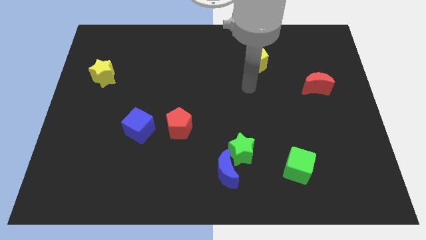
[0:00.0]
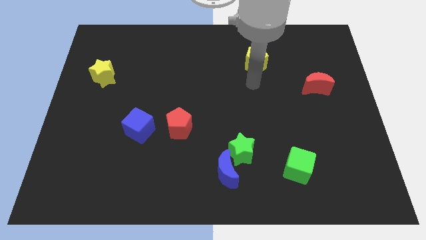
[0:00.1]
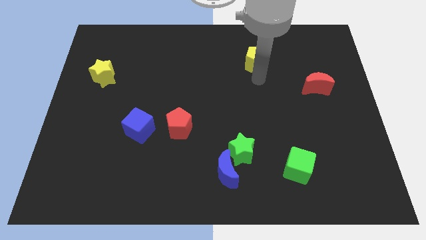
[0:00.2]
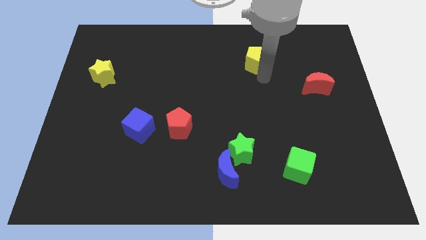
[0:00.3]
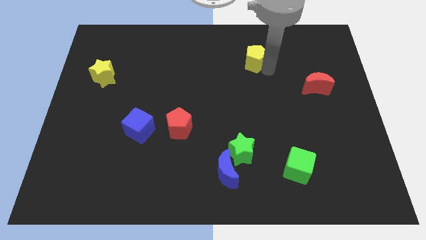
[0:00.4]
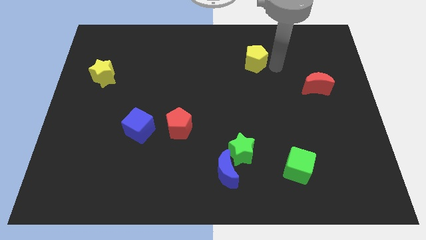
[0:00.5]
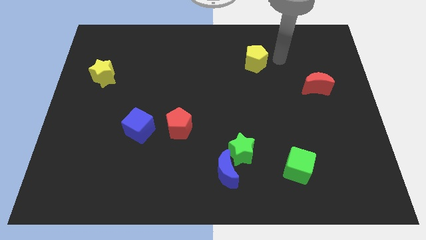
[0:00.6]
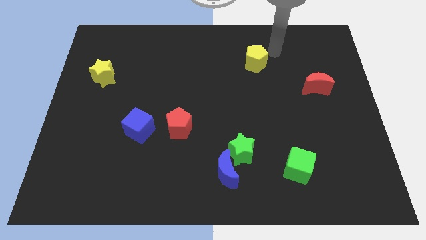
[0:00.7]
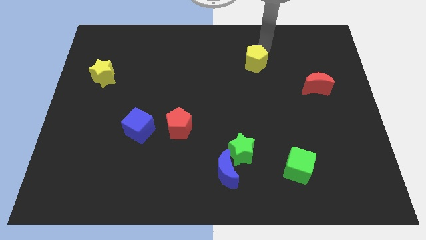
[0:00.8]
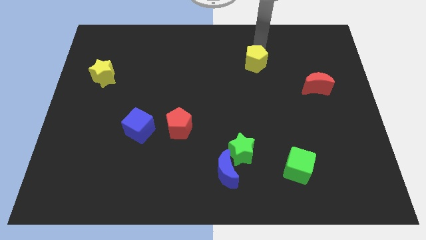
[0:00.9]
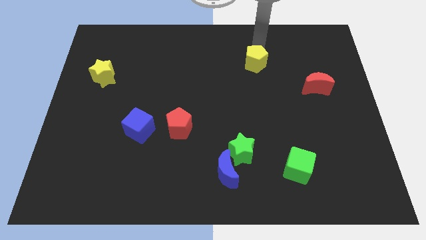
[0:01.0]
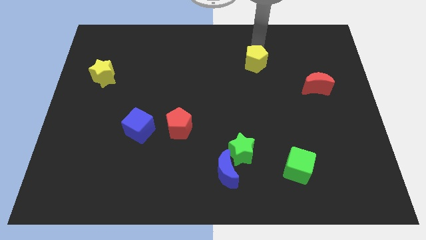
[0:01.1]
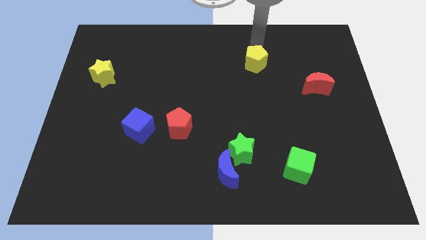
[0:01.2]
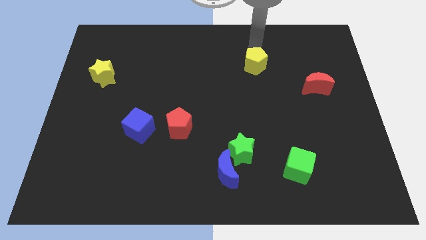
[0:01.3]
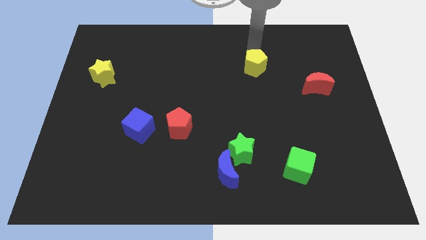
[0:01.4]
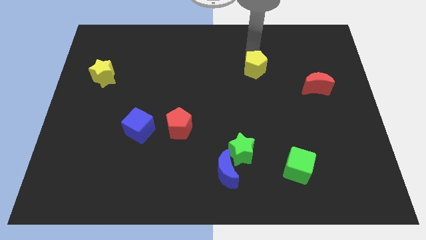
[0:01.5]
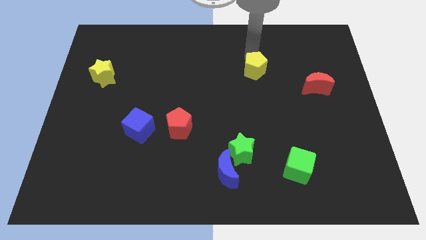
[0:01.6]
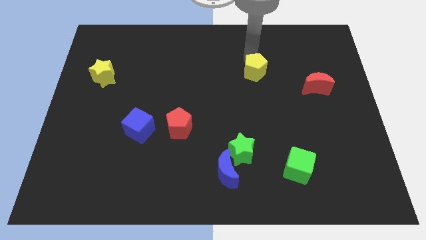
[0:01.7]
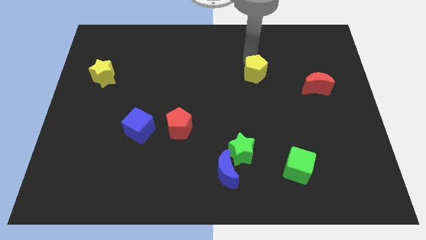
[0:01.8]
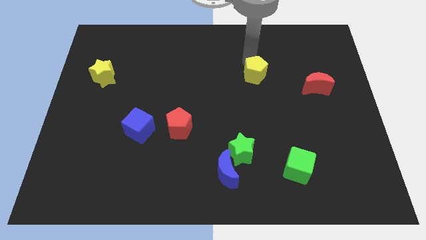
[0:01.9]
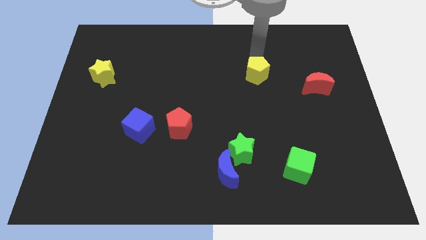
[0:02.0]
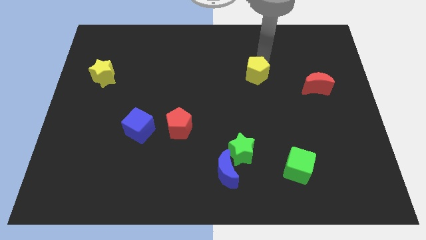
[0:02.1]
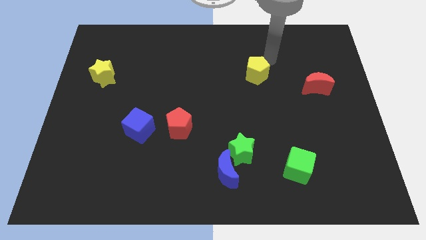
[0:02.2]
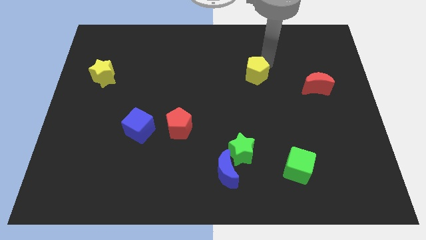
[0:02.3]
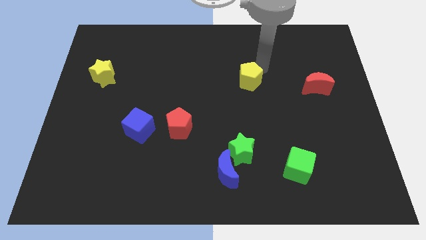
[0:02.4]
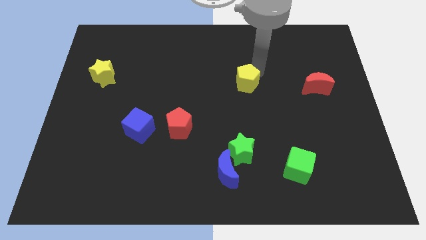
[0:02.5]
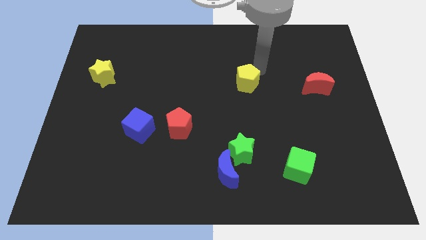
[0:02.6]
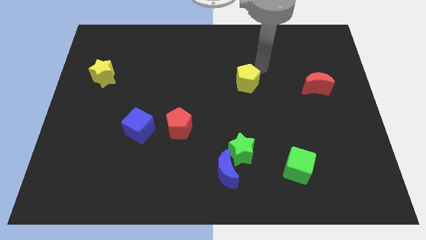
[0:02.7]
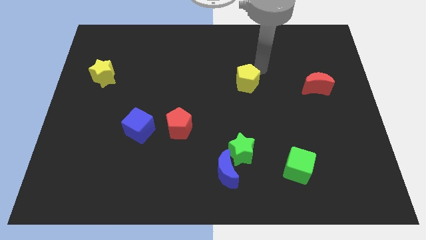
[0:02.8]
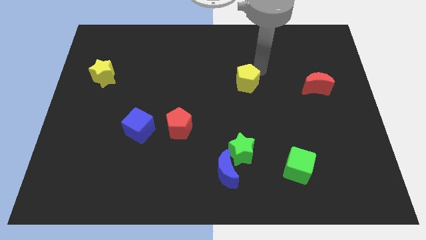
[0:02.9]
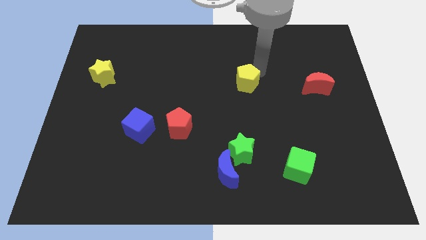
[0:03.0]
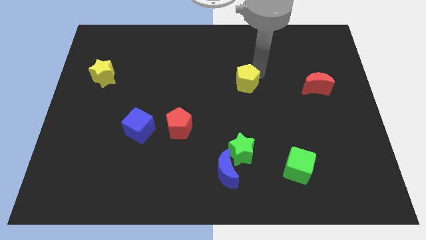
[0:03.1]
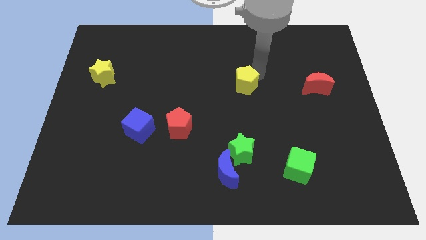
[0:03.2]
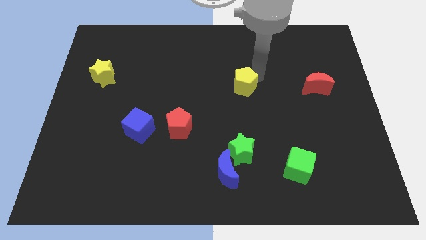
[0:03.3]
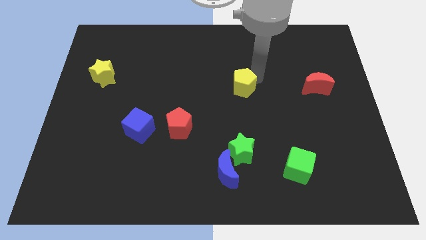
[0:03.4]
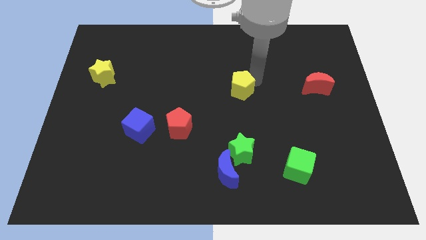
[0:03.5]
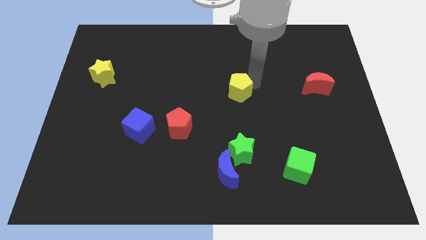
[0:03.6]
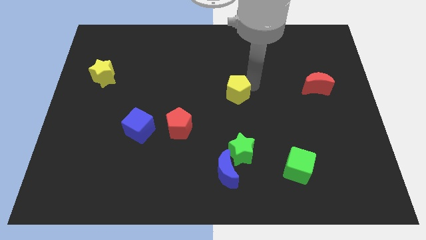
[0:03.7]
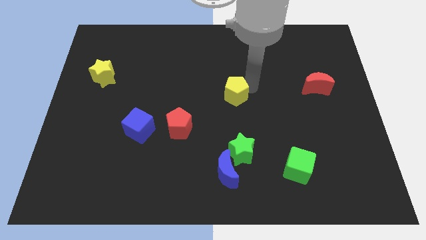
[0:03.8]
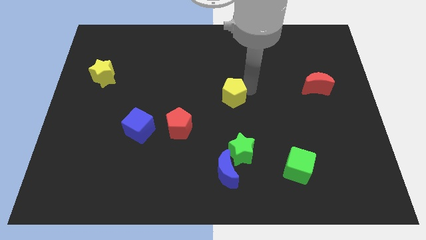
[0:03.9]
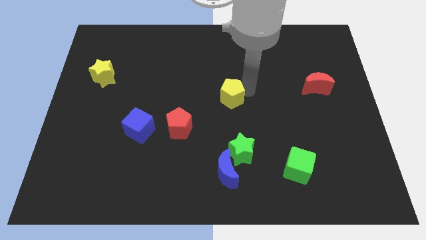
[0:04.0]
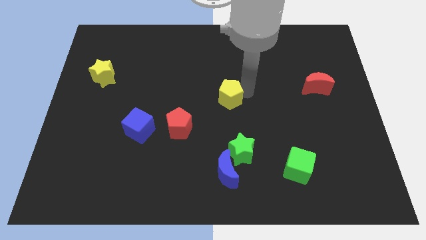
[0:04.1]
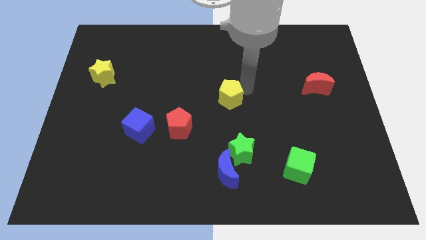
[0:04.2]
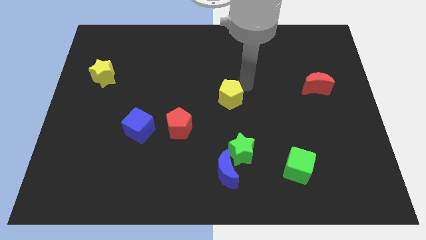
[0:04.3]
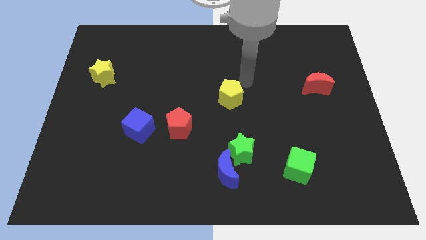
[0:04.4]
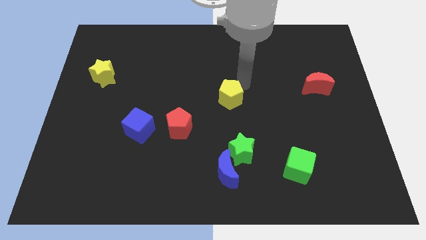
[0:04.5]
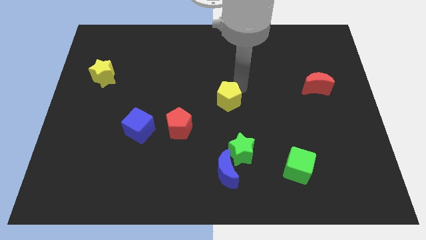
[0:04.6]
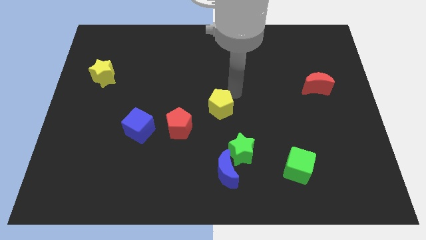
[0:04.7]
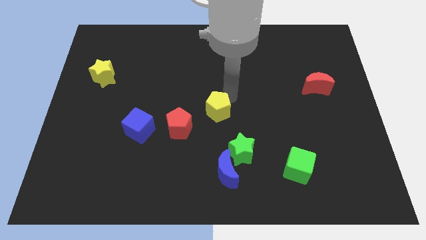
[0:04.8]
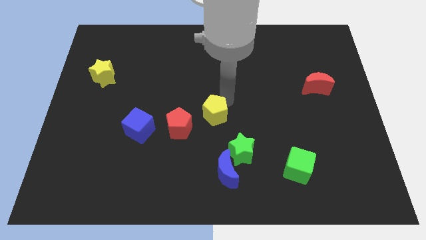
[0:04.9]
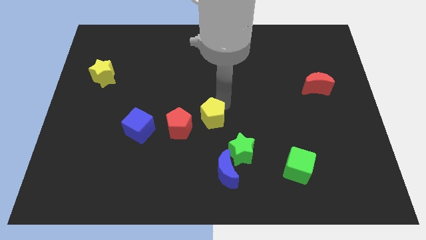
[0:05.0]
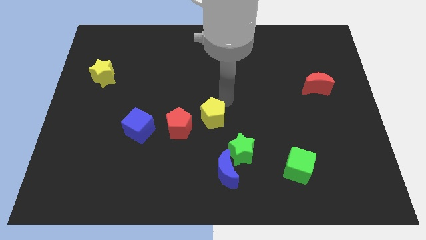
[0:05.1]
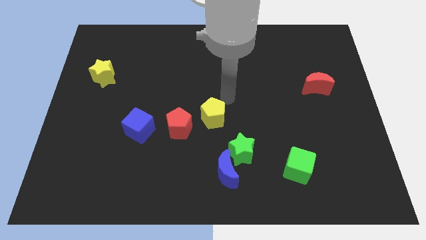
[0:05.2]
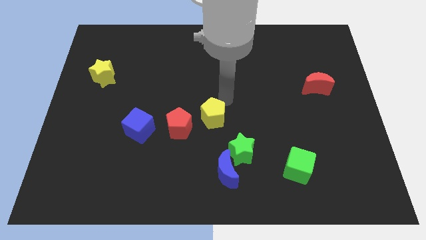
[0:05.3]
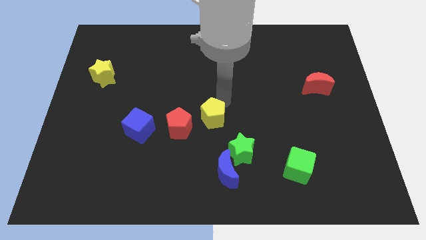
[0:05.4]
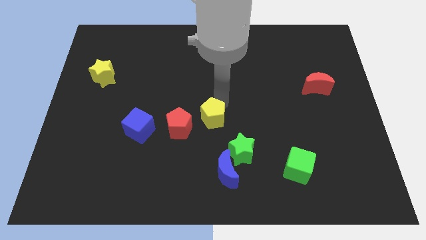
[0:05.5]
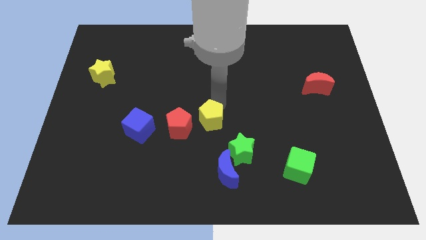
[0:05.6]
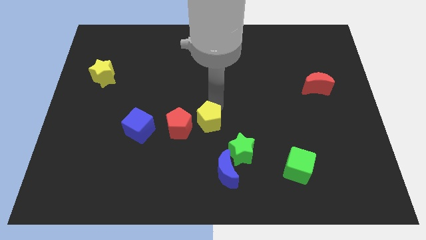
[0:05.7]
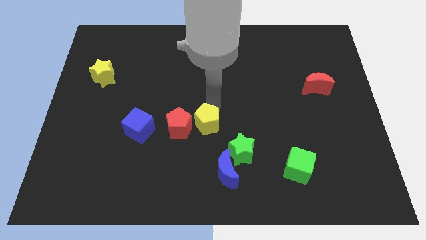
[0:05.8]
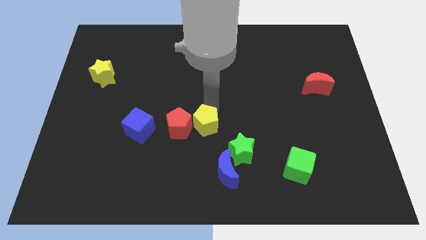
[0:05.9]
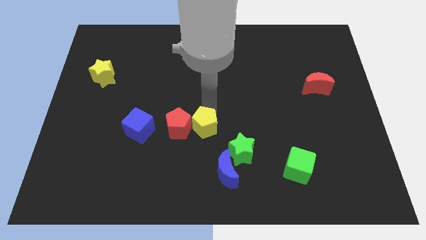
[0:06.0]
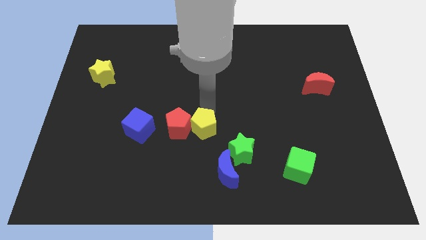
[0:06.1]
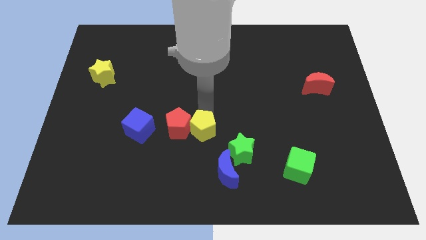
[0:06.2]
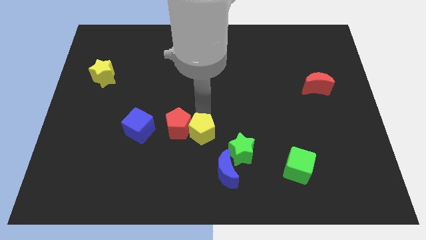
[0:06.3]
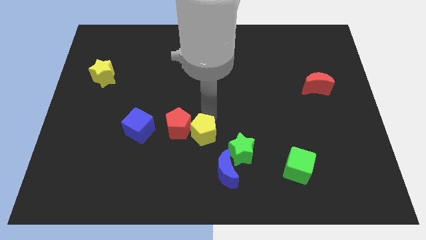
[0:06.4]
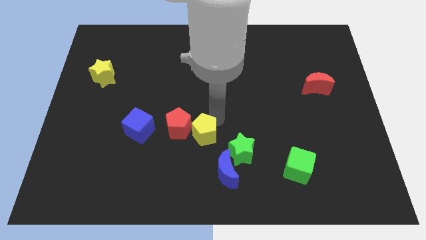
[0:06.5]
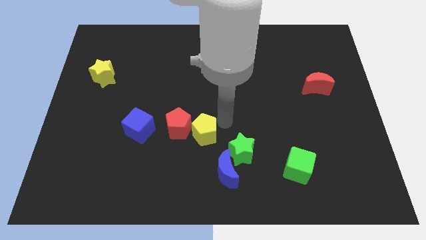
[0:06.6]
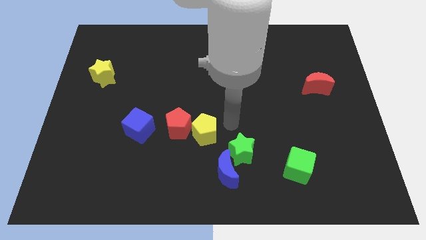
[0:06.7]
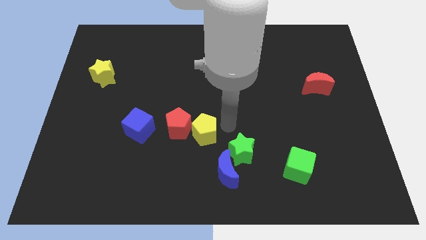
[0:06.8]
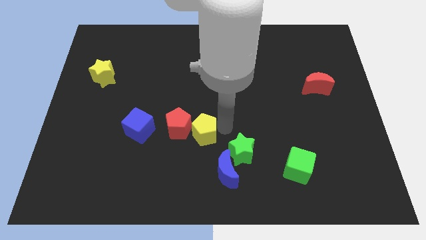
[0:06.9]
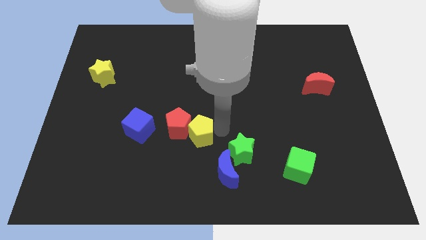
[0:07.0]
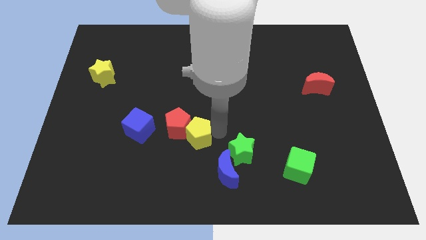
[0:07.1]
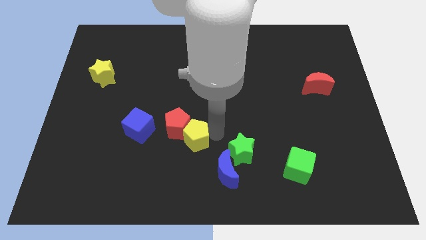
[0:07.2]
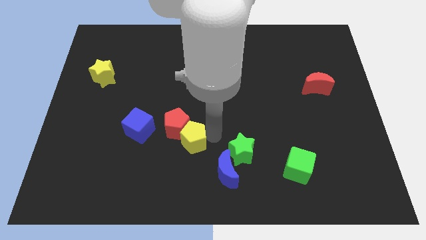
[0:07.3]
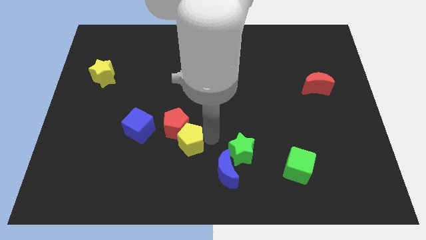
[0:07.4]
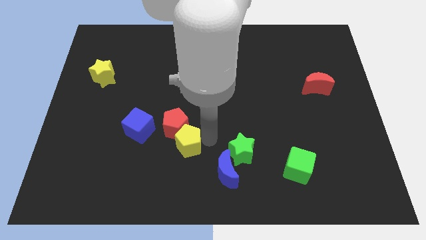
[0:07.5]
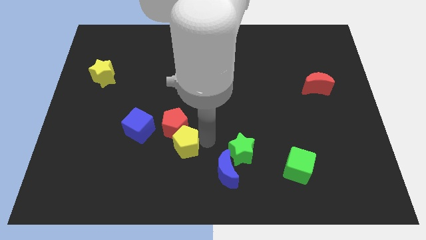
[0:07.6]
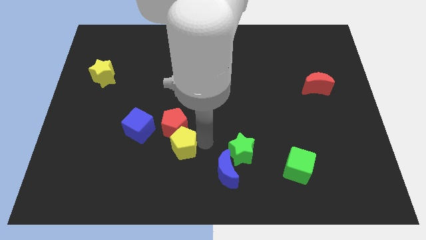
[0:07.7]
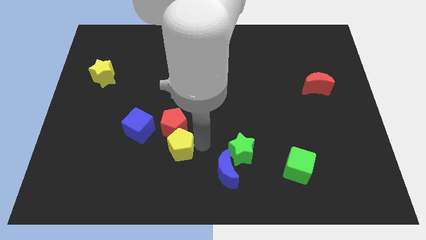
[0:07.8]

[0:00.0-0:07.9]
push the yellow pentagon to the bottom left of the red pentagon
